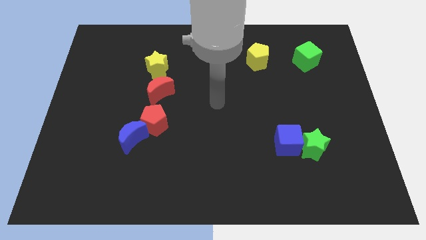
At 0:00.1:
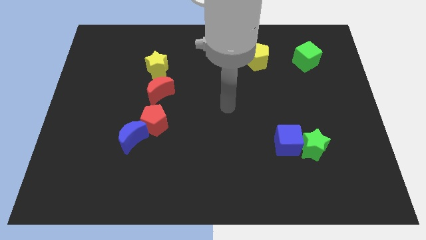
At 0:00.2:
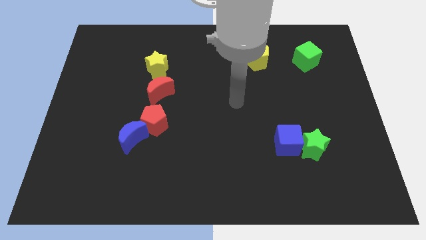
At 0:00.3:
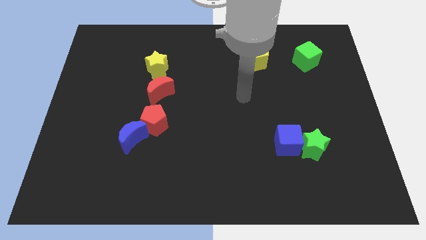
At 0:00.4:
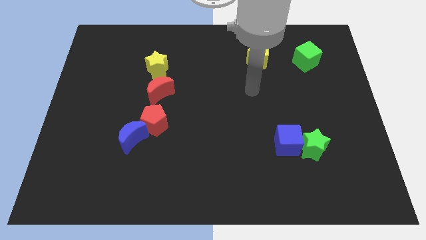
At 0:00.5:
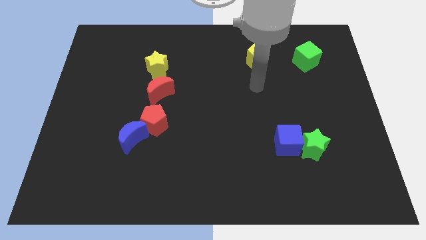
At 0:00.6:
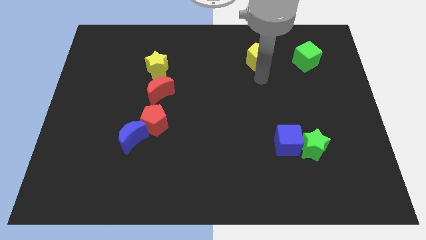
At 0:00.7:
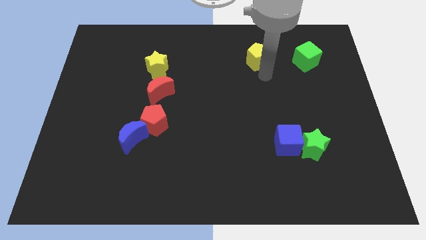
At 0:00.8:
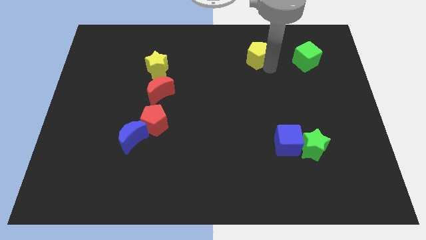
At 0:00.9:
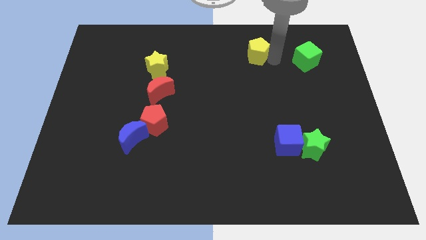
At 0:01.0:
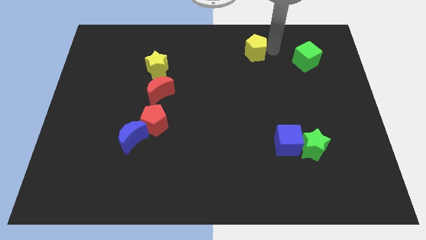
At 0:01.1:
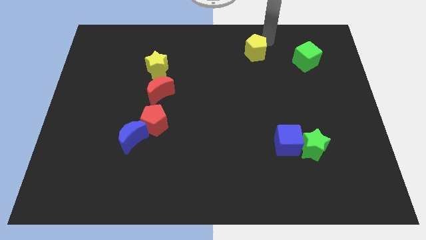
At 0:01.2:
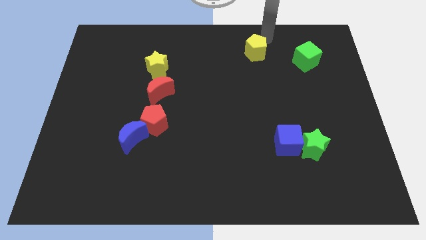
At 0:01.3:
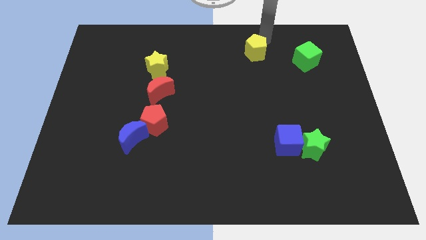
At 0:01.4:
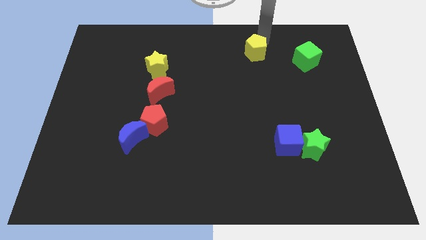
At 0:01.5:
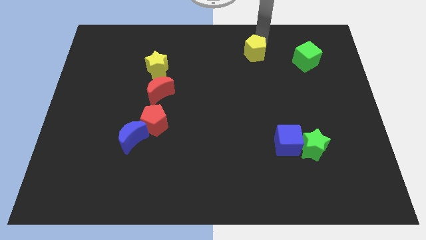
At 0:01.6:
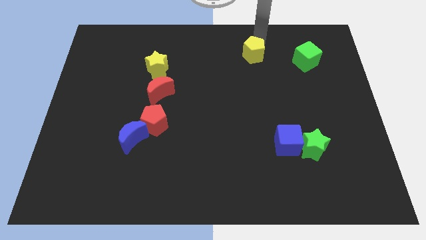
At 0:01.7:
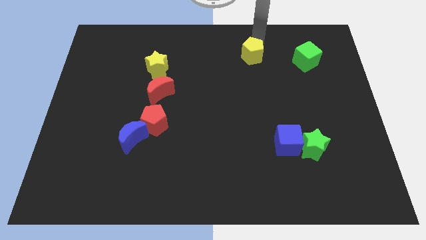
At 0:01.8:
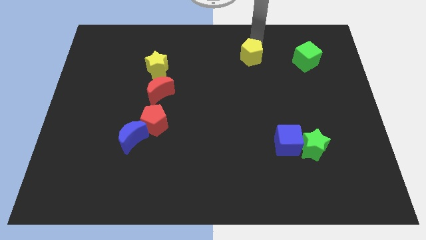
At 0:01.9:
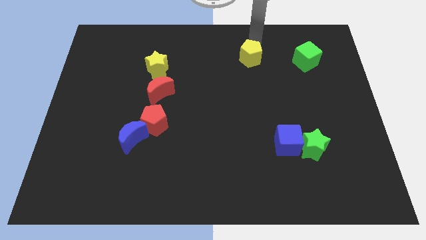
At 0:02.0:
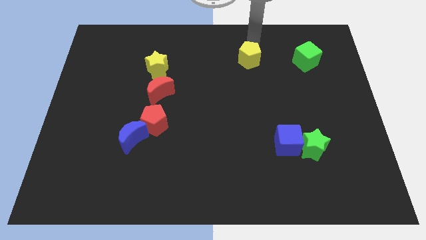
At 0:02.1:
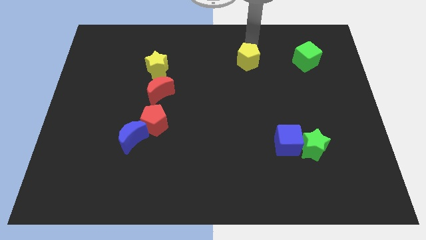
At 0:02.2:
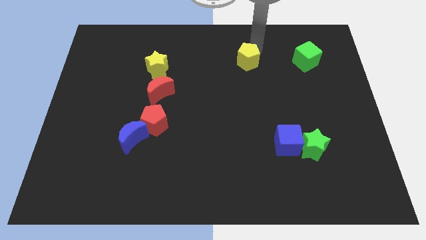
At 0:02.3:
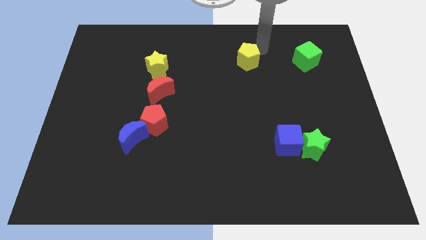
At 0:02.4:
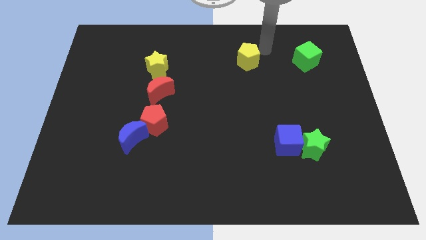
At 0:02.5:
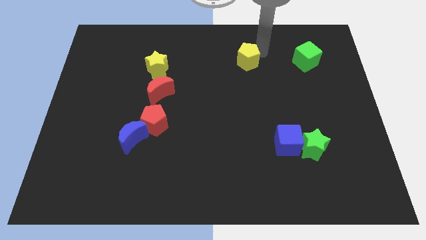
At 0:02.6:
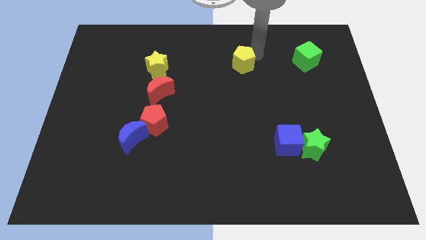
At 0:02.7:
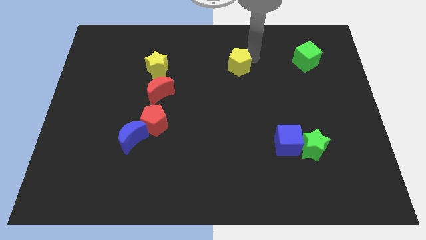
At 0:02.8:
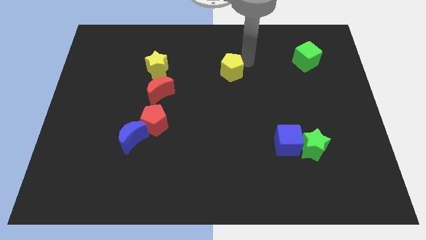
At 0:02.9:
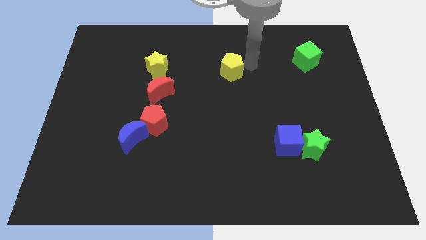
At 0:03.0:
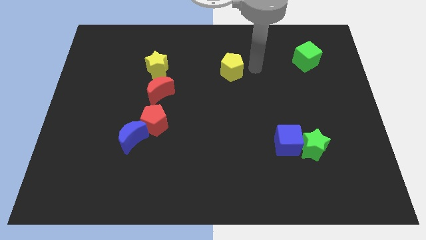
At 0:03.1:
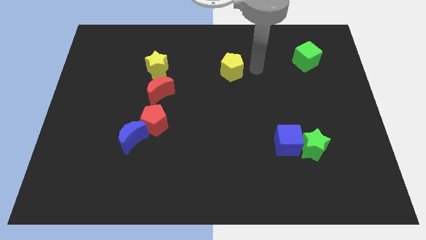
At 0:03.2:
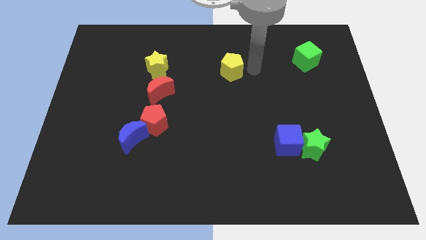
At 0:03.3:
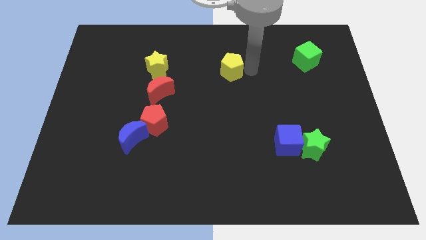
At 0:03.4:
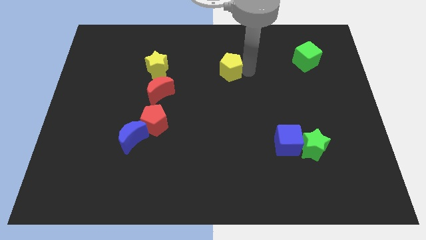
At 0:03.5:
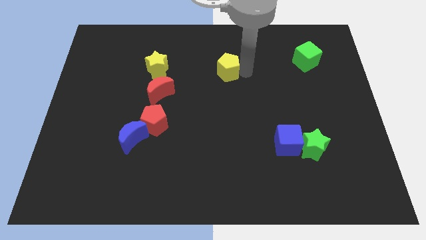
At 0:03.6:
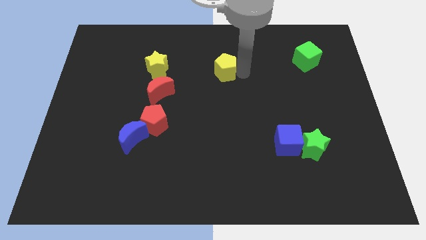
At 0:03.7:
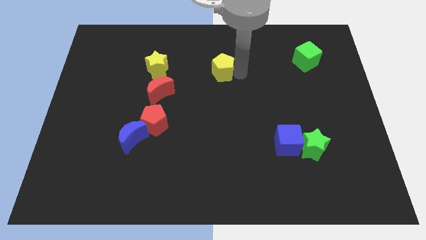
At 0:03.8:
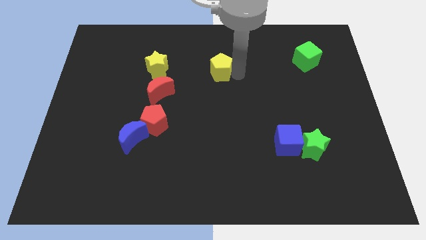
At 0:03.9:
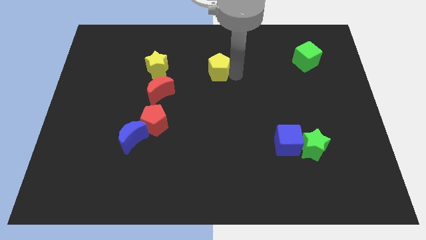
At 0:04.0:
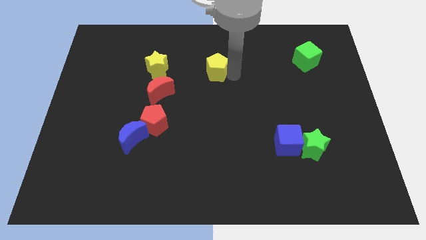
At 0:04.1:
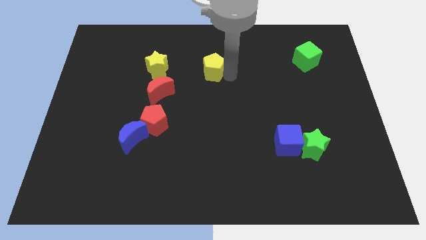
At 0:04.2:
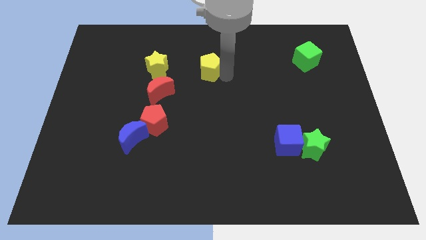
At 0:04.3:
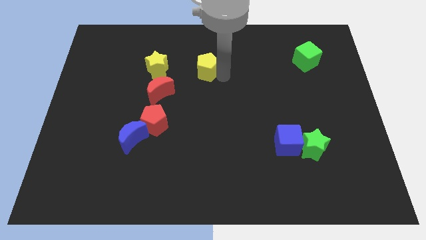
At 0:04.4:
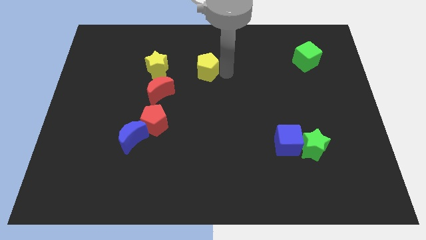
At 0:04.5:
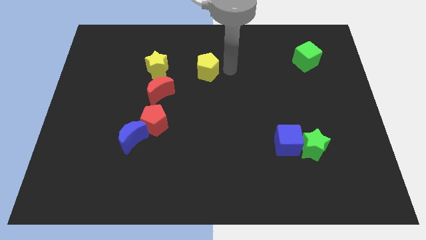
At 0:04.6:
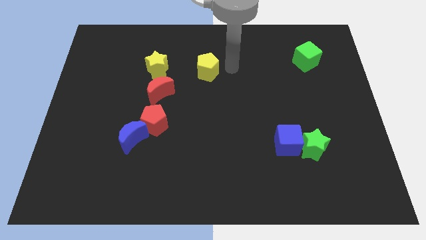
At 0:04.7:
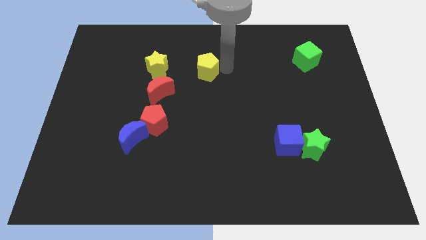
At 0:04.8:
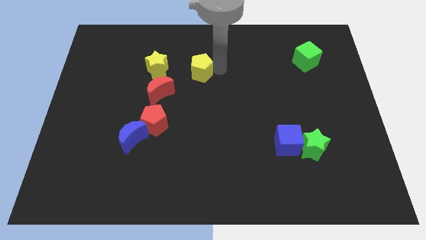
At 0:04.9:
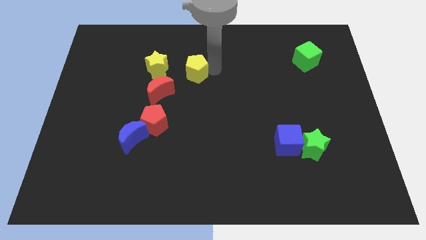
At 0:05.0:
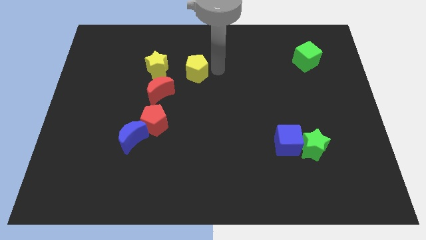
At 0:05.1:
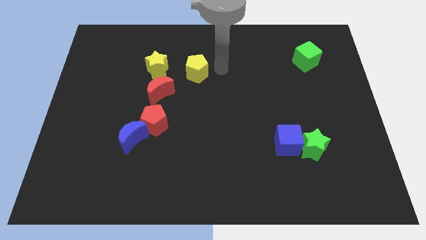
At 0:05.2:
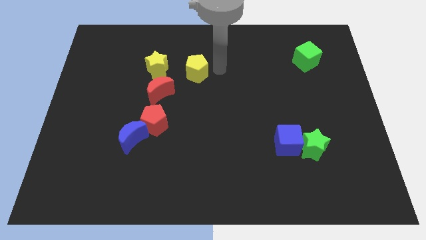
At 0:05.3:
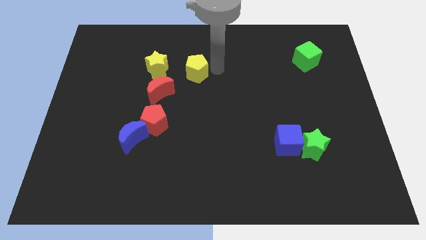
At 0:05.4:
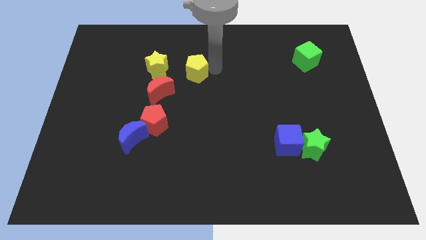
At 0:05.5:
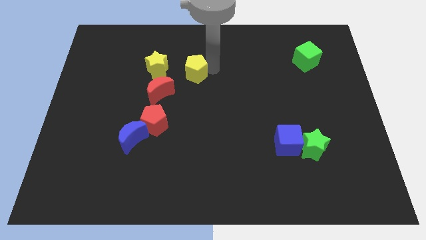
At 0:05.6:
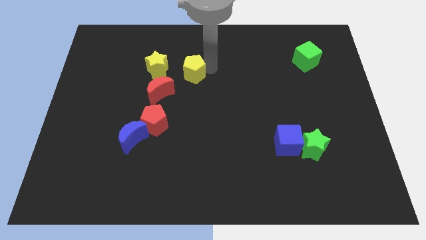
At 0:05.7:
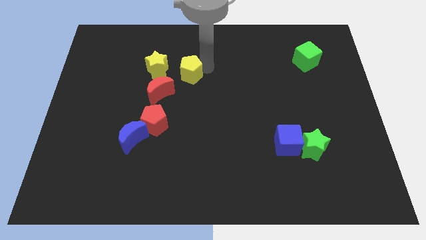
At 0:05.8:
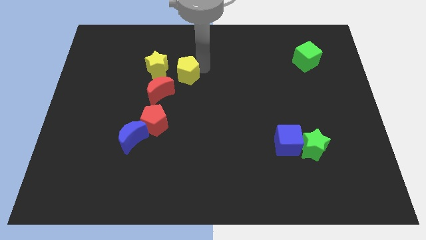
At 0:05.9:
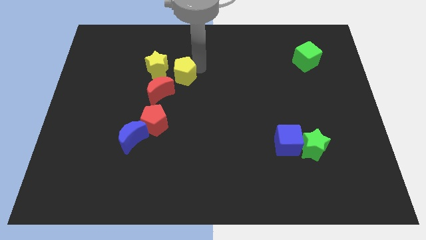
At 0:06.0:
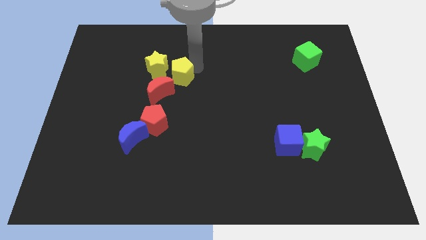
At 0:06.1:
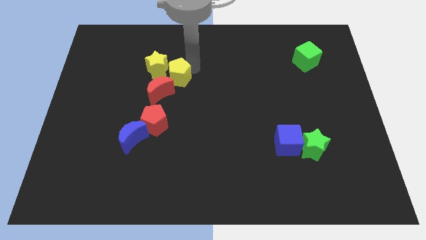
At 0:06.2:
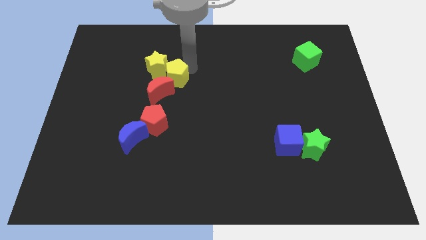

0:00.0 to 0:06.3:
move the yellow pentagon to the top of the red pentagon
